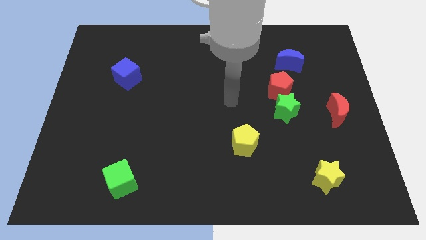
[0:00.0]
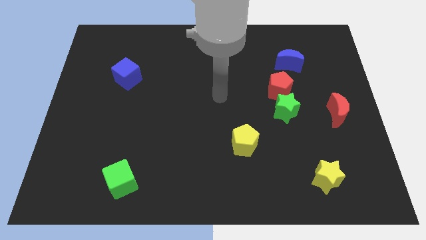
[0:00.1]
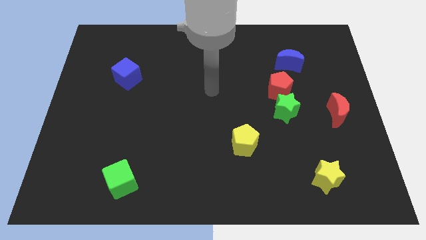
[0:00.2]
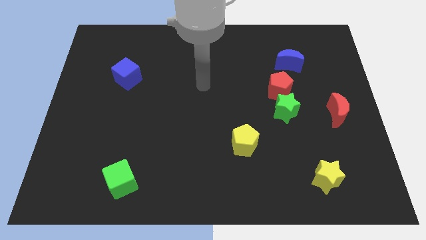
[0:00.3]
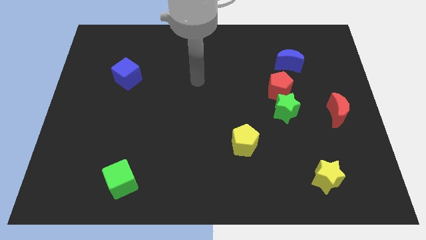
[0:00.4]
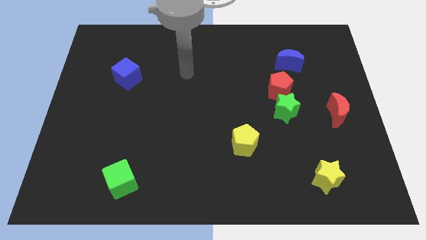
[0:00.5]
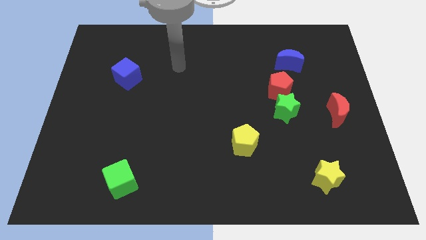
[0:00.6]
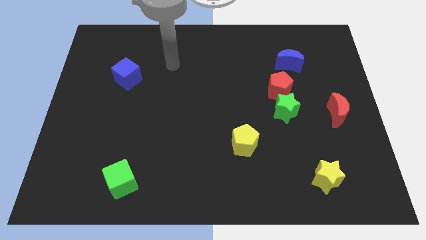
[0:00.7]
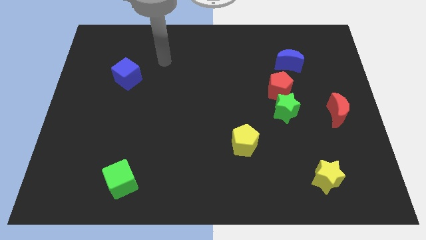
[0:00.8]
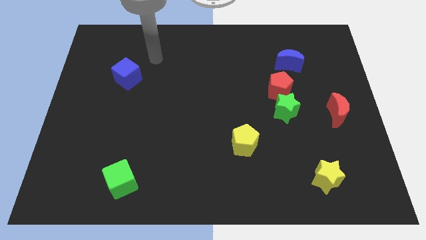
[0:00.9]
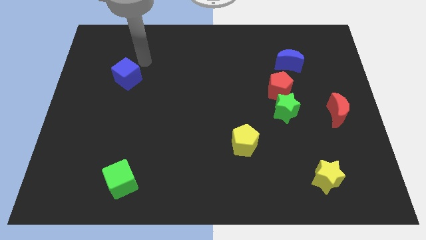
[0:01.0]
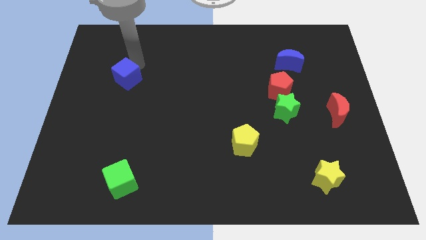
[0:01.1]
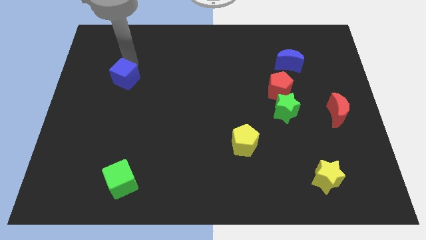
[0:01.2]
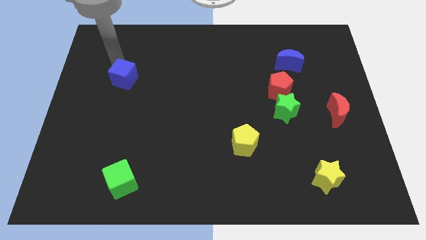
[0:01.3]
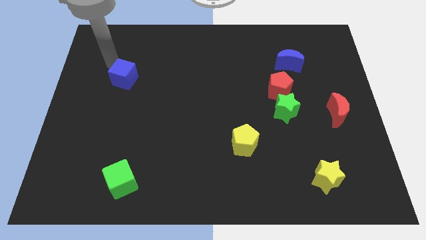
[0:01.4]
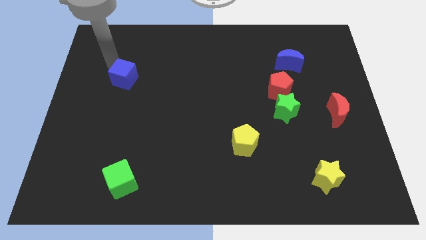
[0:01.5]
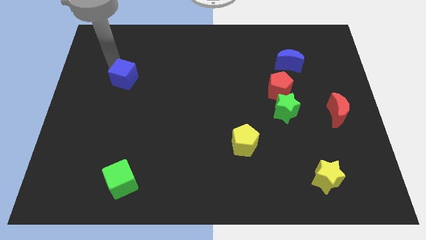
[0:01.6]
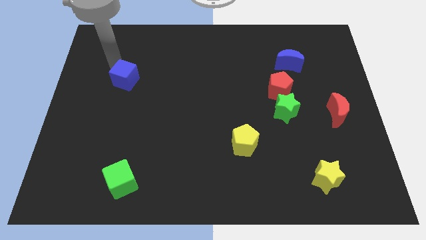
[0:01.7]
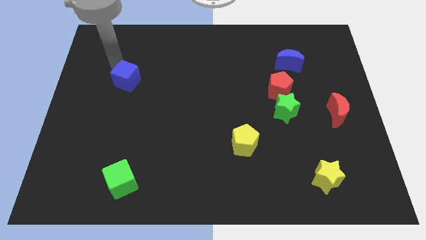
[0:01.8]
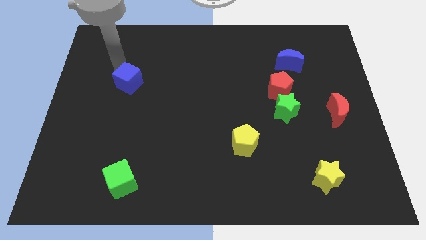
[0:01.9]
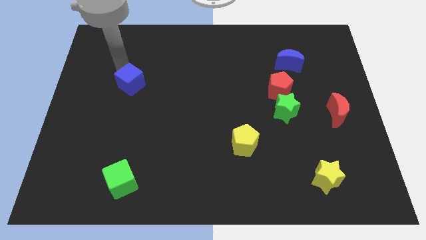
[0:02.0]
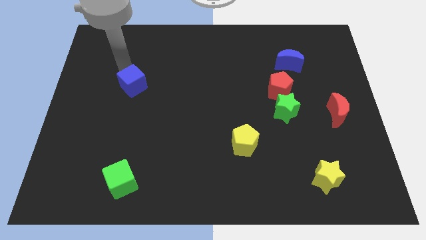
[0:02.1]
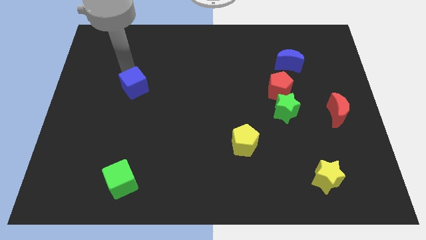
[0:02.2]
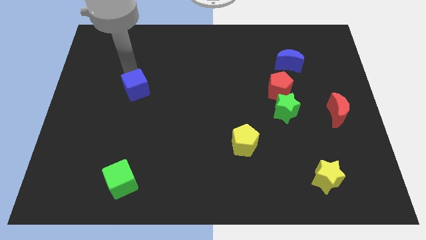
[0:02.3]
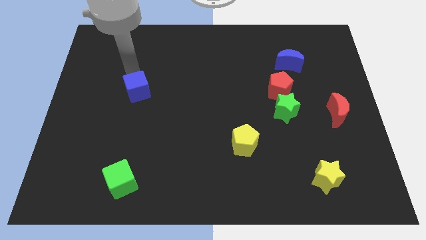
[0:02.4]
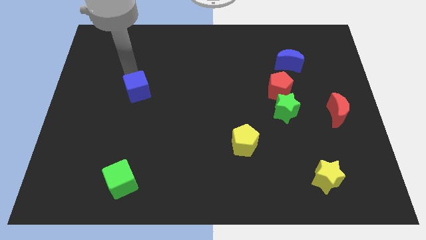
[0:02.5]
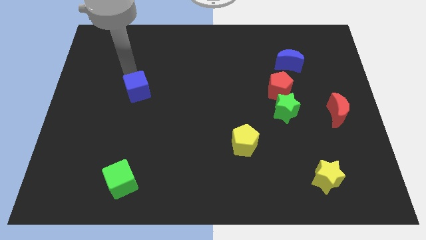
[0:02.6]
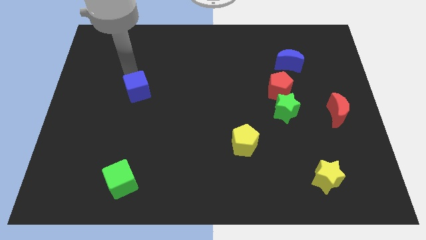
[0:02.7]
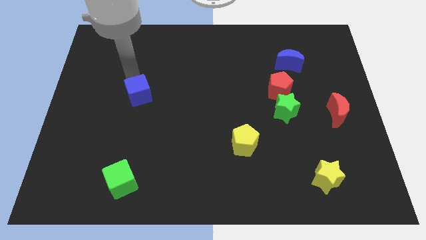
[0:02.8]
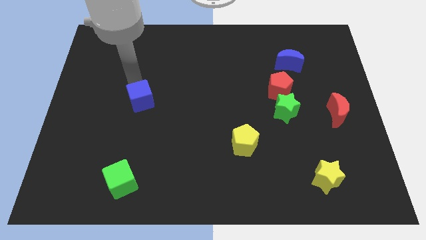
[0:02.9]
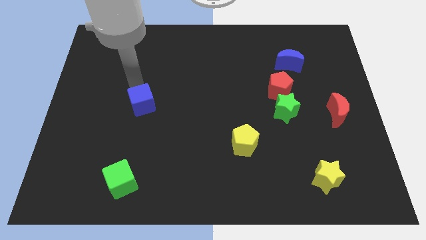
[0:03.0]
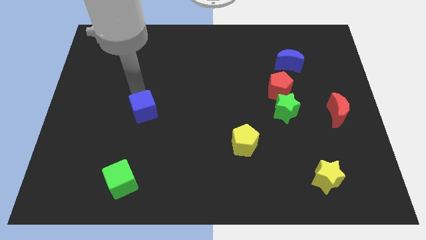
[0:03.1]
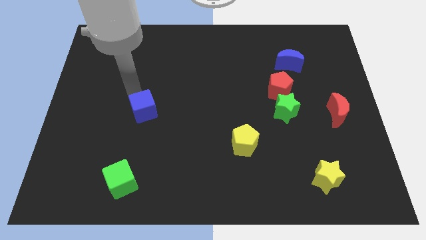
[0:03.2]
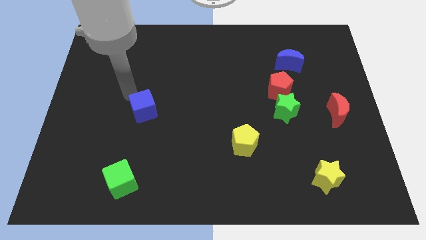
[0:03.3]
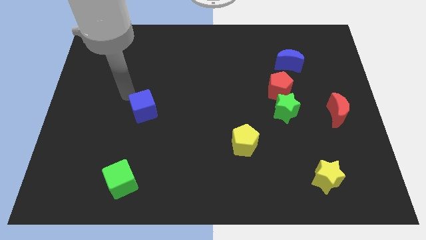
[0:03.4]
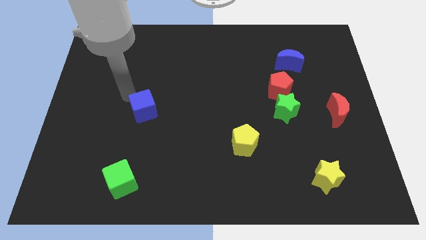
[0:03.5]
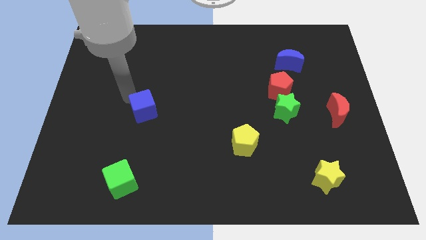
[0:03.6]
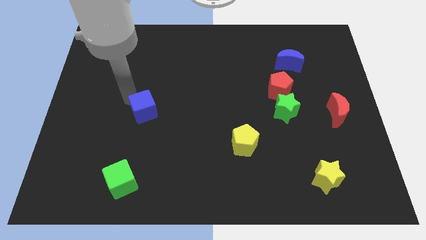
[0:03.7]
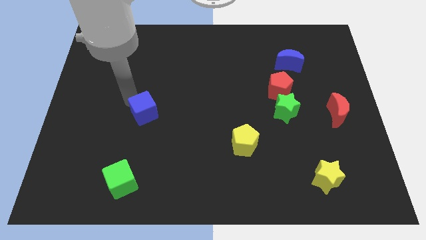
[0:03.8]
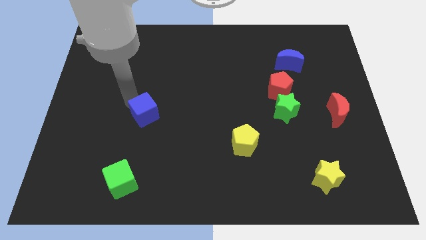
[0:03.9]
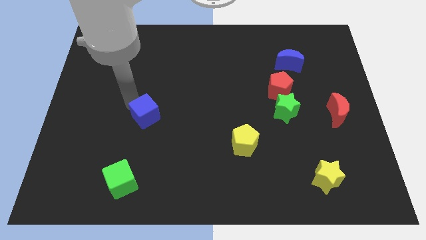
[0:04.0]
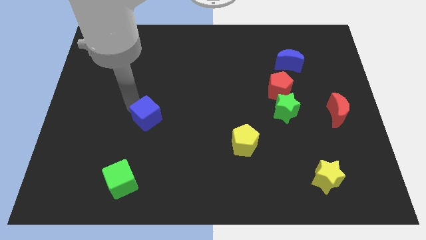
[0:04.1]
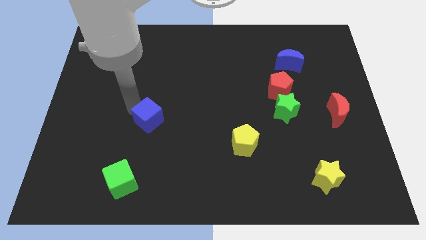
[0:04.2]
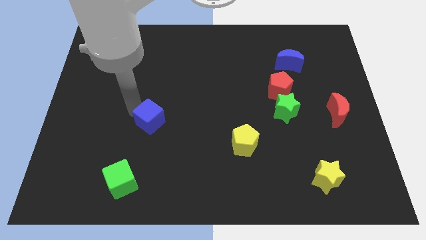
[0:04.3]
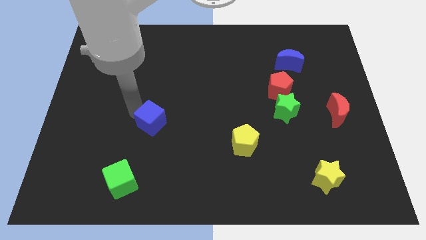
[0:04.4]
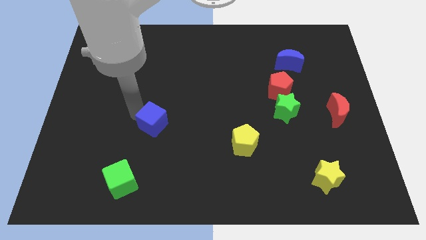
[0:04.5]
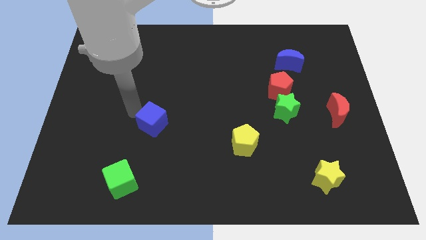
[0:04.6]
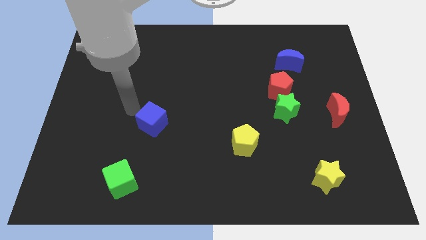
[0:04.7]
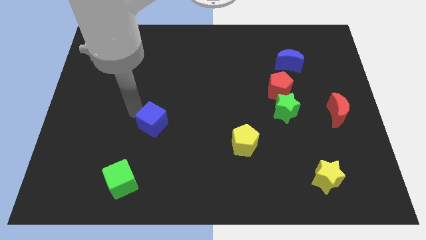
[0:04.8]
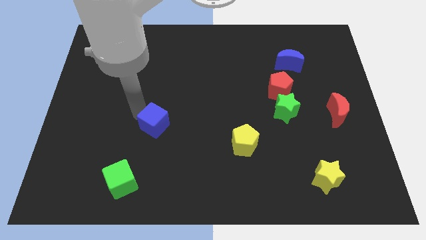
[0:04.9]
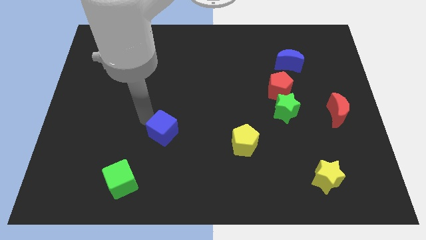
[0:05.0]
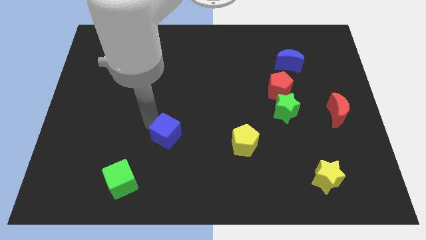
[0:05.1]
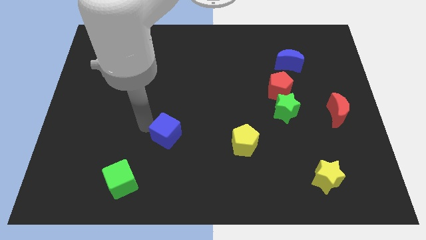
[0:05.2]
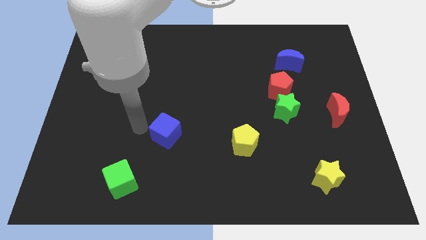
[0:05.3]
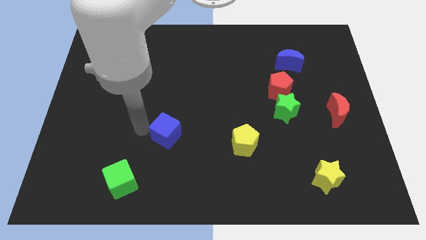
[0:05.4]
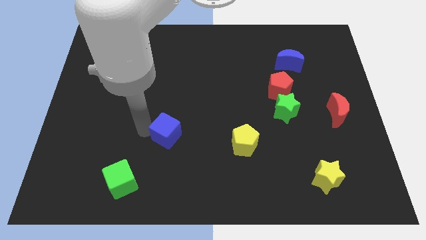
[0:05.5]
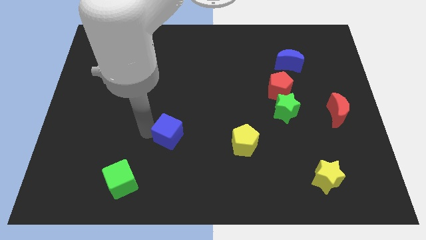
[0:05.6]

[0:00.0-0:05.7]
push the blue cube downwards and right

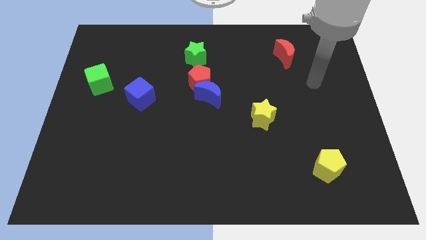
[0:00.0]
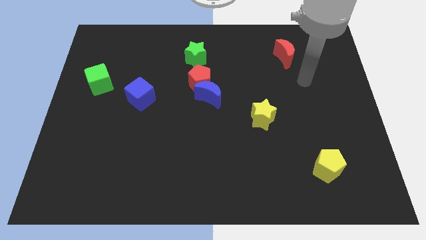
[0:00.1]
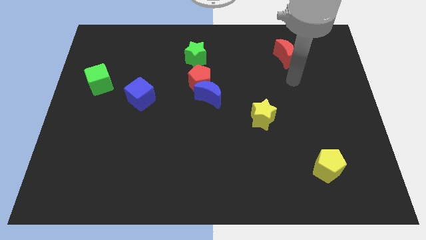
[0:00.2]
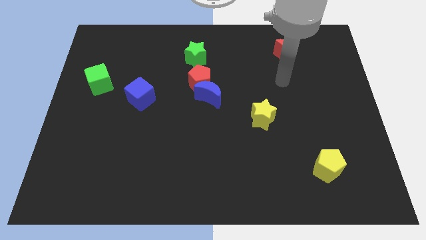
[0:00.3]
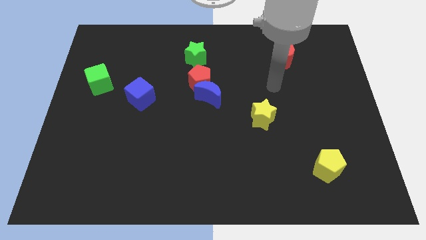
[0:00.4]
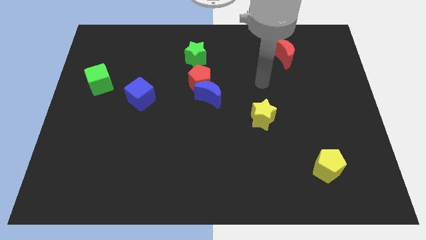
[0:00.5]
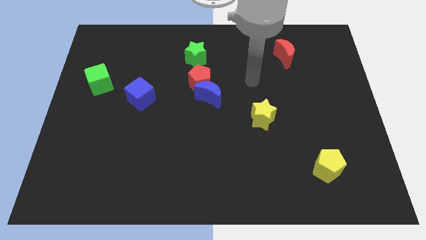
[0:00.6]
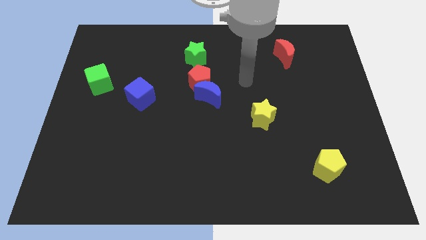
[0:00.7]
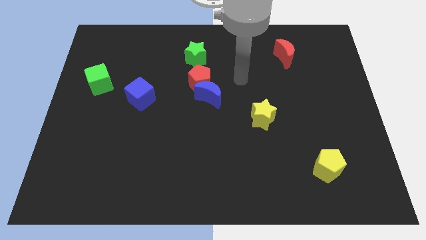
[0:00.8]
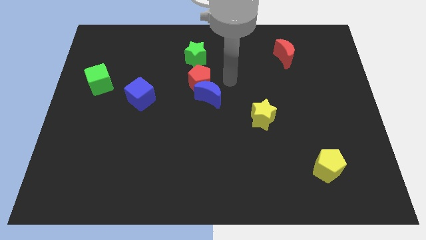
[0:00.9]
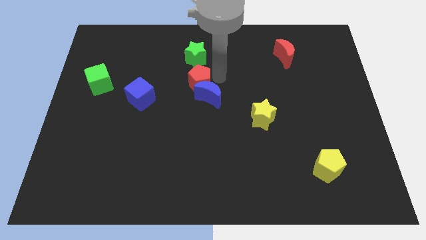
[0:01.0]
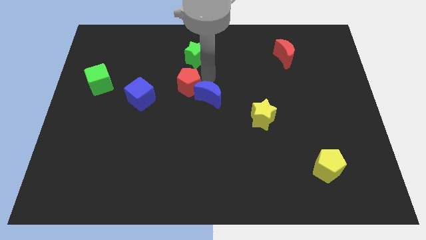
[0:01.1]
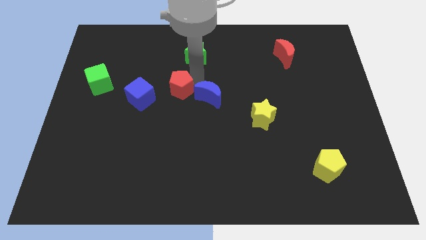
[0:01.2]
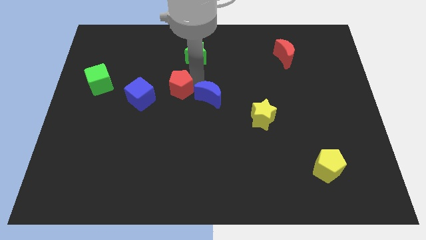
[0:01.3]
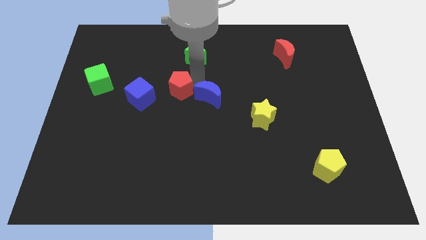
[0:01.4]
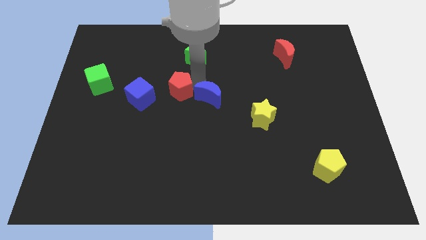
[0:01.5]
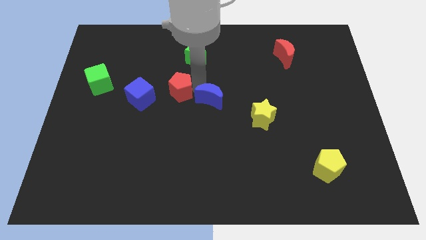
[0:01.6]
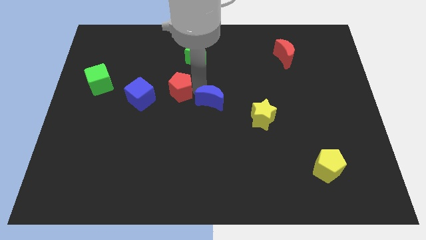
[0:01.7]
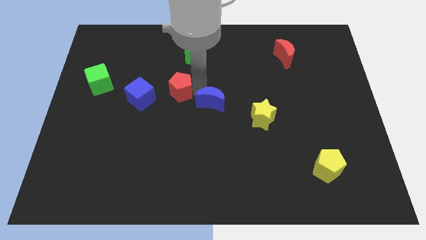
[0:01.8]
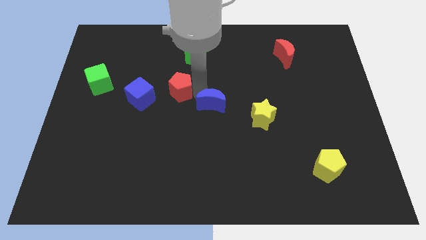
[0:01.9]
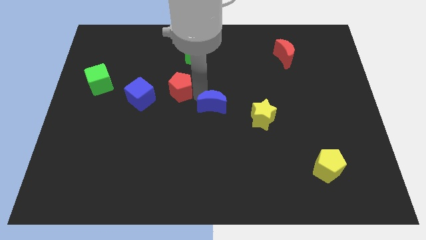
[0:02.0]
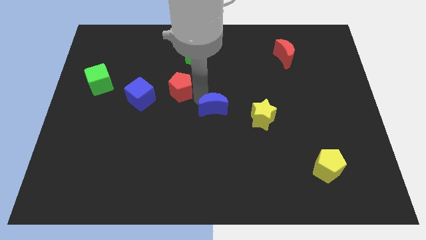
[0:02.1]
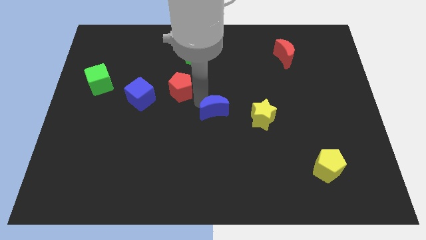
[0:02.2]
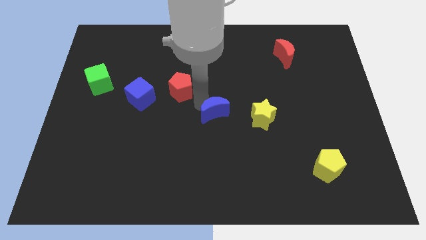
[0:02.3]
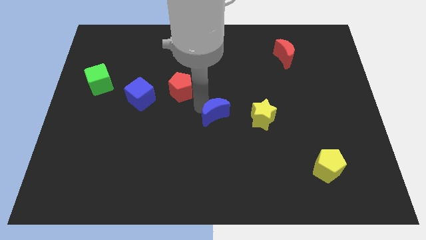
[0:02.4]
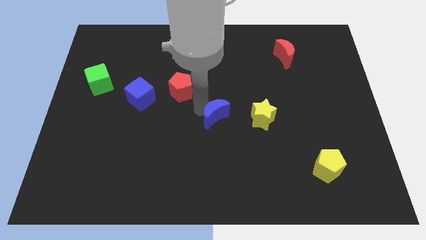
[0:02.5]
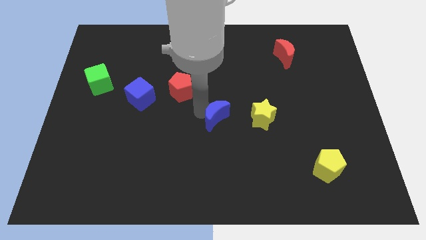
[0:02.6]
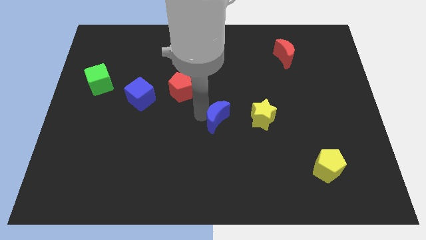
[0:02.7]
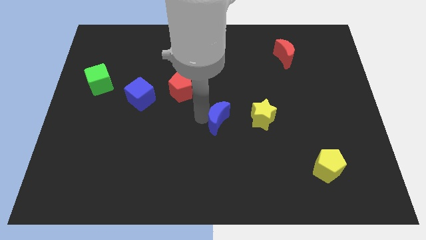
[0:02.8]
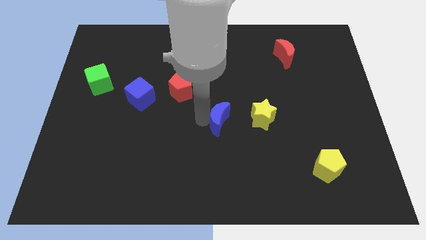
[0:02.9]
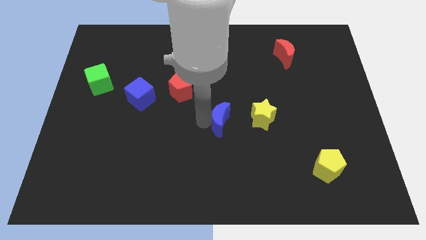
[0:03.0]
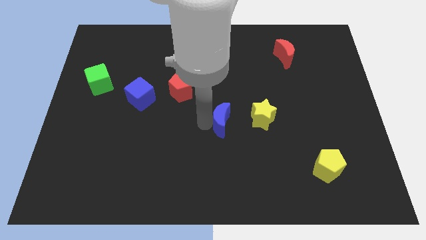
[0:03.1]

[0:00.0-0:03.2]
slide the blue moon down and then to the right a little bit
